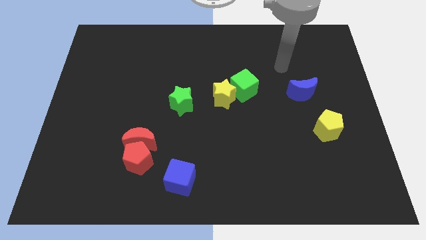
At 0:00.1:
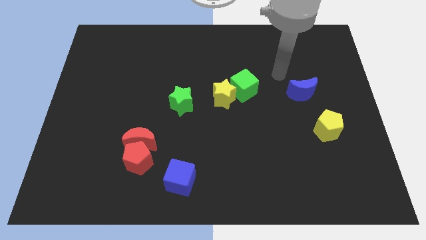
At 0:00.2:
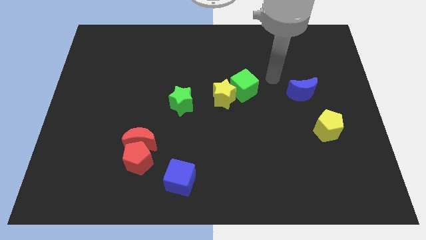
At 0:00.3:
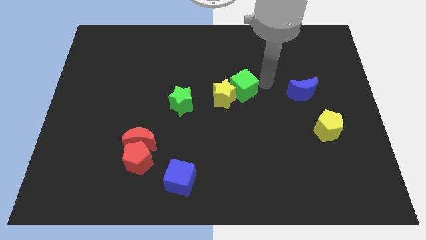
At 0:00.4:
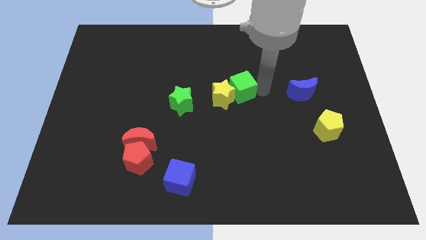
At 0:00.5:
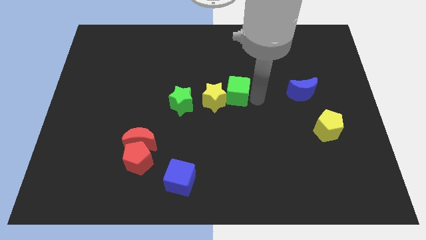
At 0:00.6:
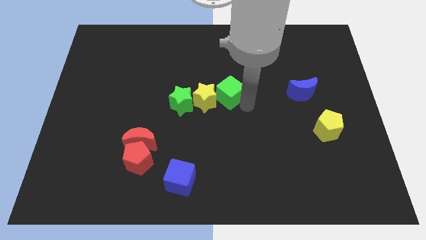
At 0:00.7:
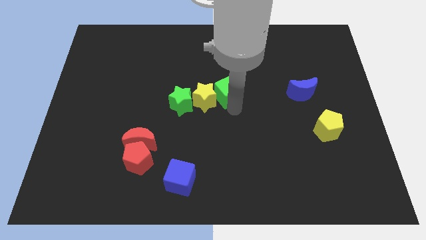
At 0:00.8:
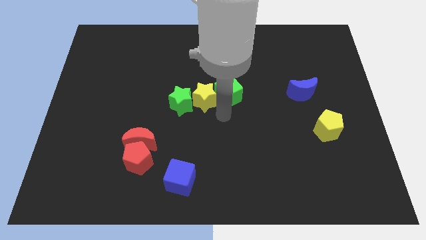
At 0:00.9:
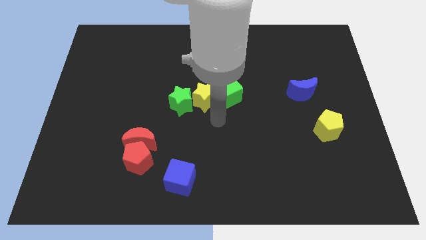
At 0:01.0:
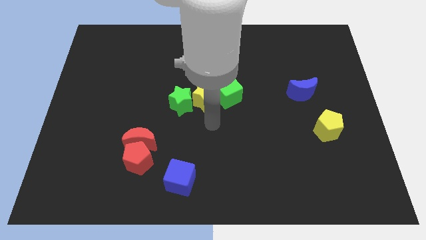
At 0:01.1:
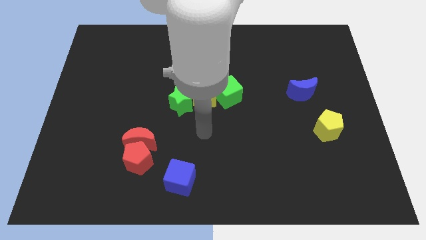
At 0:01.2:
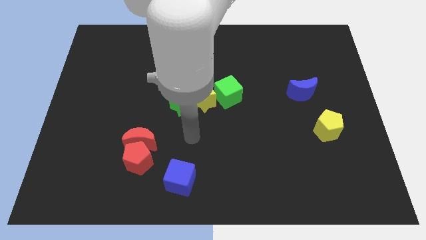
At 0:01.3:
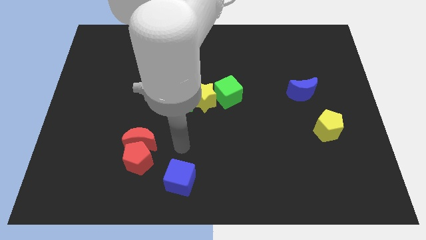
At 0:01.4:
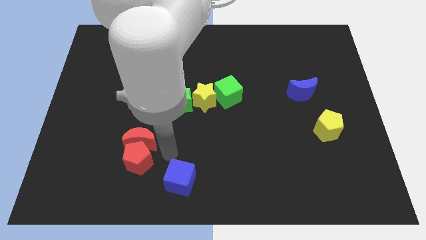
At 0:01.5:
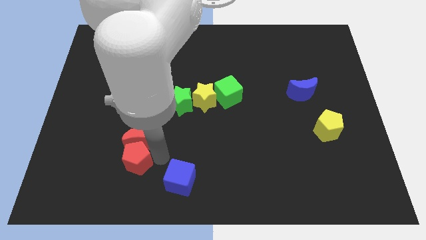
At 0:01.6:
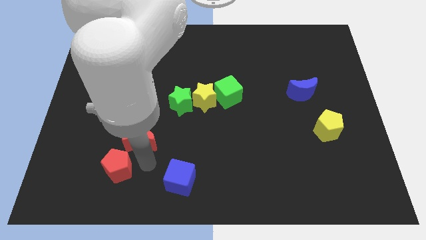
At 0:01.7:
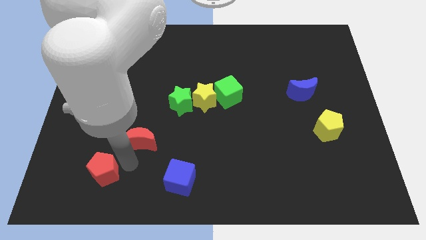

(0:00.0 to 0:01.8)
move the red moon away from the red pentagon

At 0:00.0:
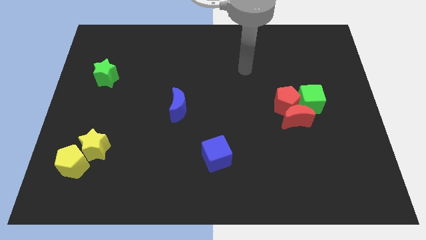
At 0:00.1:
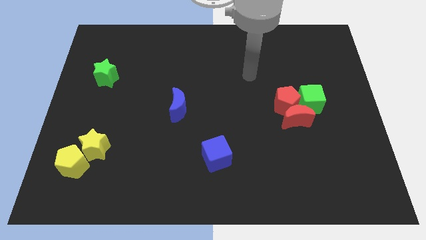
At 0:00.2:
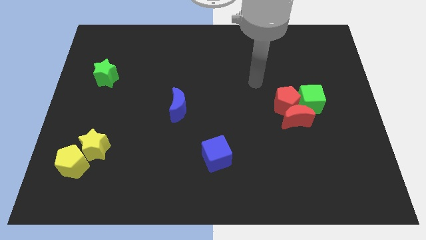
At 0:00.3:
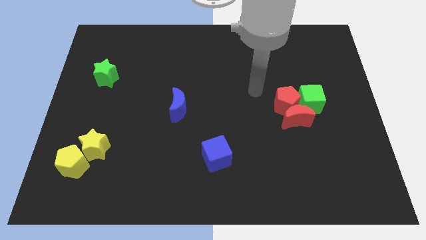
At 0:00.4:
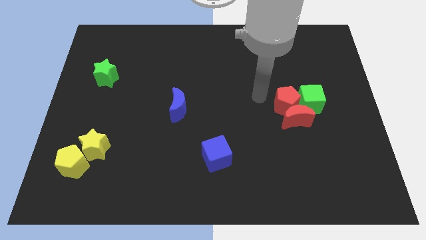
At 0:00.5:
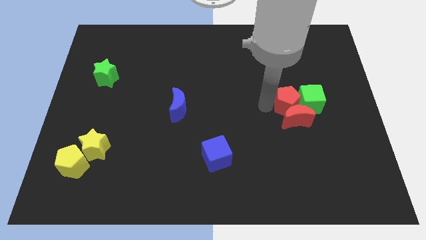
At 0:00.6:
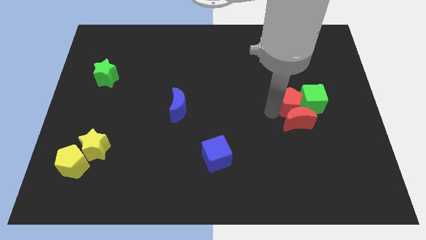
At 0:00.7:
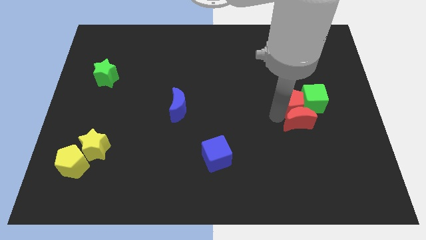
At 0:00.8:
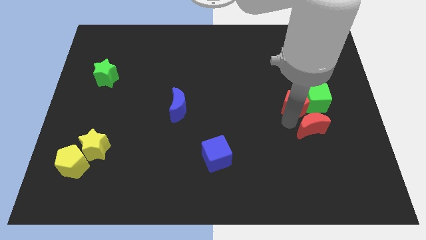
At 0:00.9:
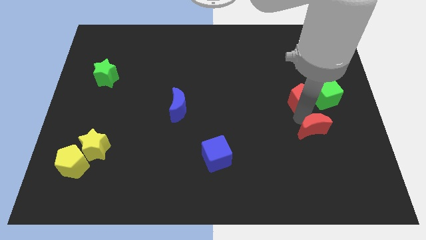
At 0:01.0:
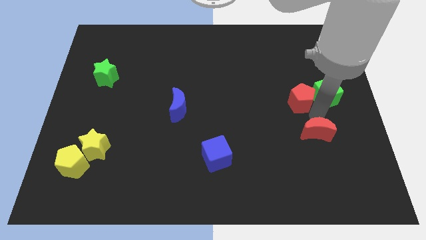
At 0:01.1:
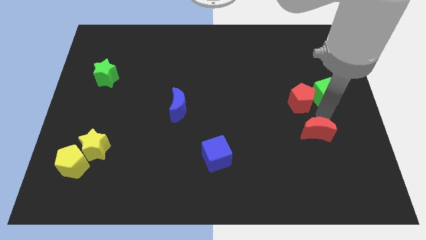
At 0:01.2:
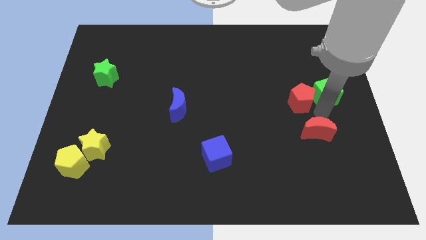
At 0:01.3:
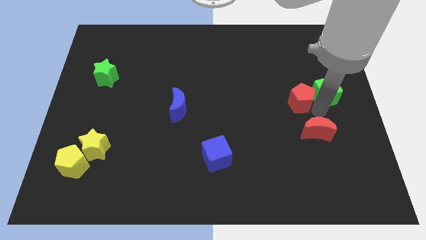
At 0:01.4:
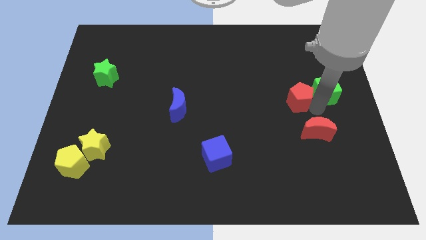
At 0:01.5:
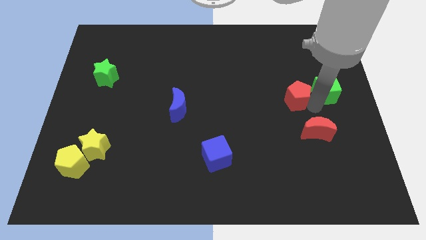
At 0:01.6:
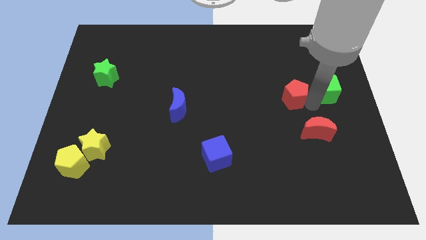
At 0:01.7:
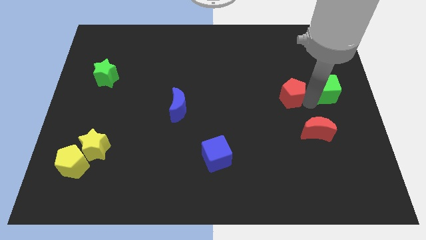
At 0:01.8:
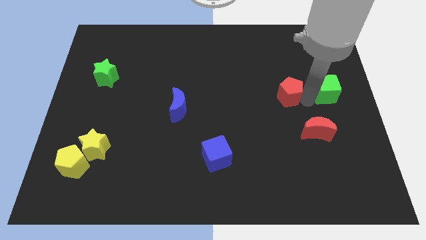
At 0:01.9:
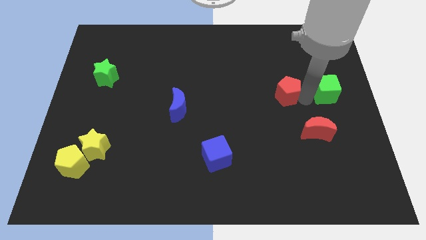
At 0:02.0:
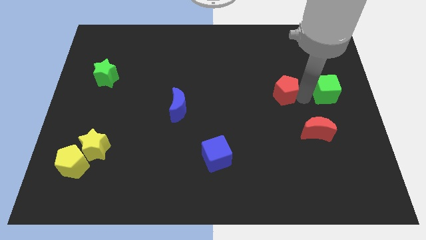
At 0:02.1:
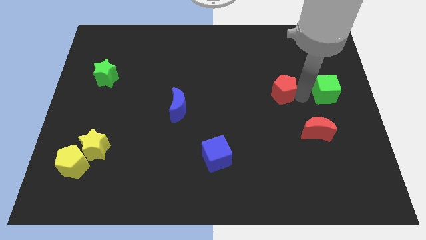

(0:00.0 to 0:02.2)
separate the red pentagon from the red moon and green cube

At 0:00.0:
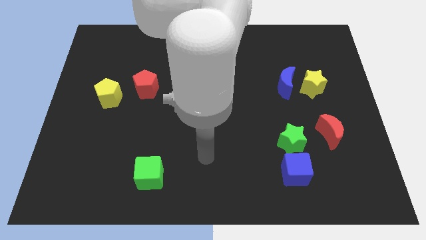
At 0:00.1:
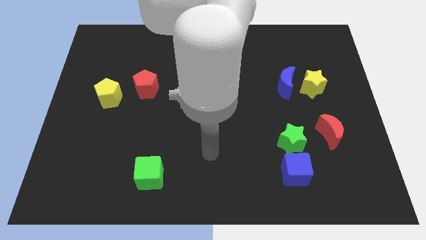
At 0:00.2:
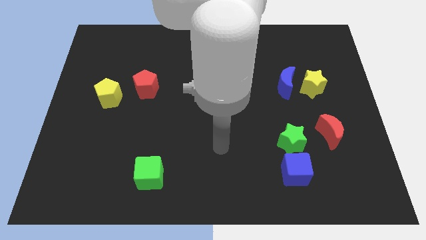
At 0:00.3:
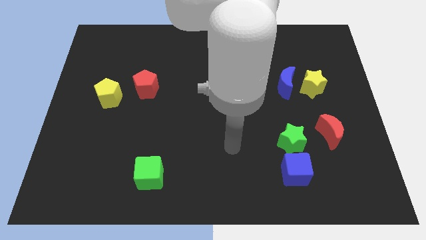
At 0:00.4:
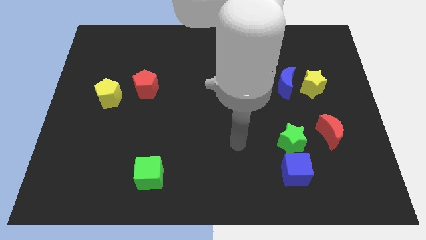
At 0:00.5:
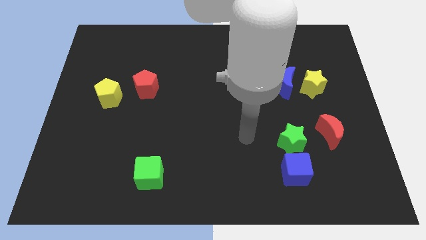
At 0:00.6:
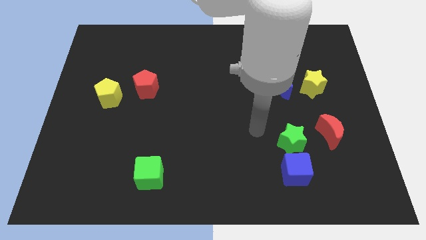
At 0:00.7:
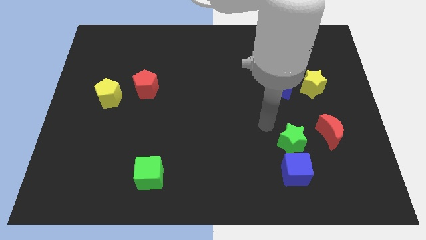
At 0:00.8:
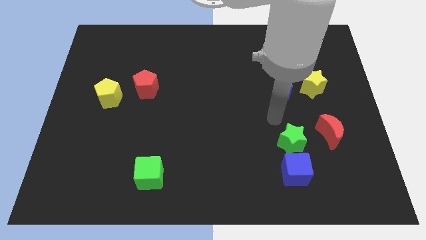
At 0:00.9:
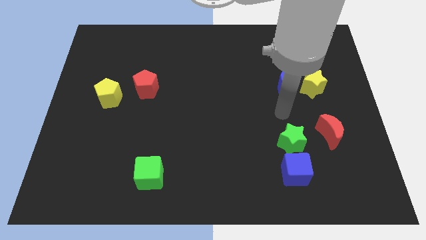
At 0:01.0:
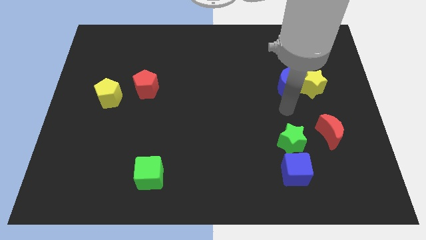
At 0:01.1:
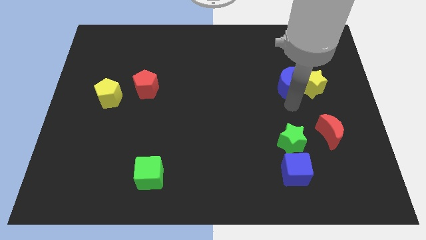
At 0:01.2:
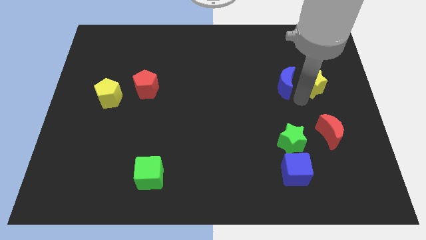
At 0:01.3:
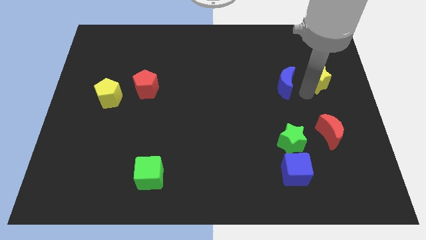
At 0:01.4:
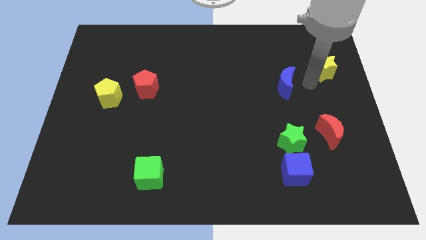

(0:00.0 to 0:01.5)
move the blue moon away from the yellow star

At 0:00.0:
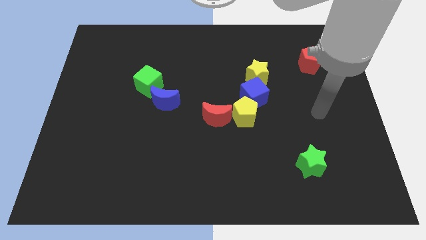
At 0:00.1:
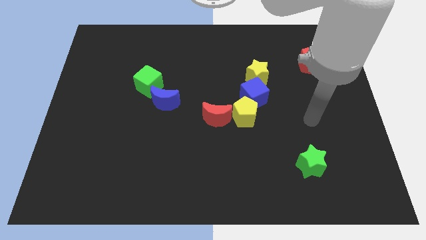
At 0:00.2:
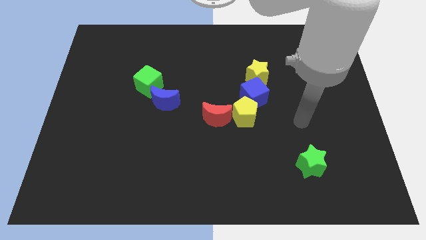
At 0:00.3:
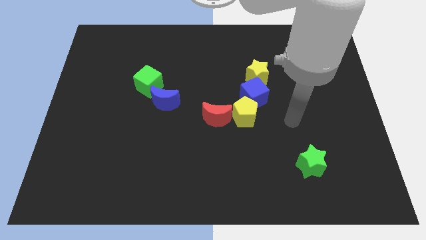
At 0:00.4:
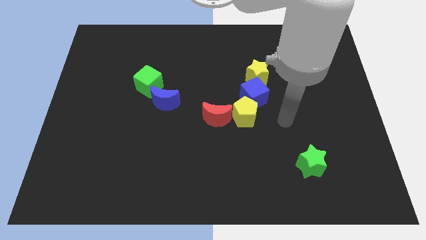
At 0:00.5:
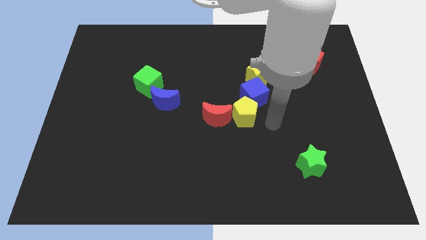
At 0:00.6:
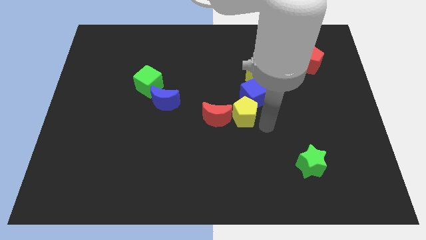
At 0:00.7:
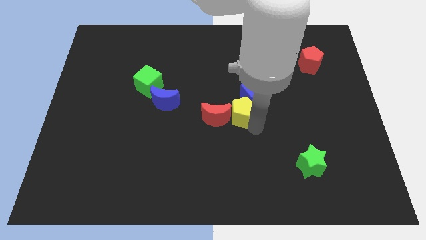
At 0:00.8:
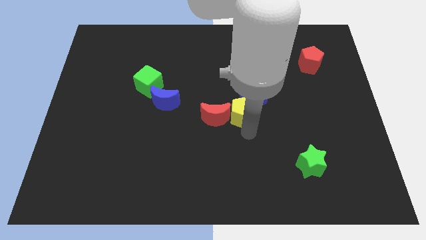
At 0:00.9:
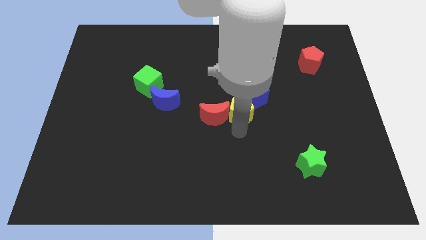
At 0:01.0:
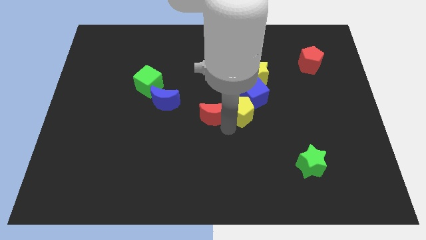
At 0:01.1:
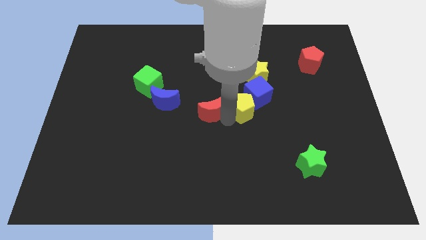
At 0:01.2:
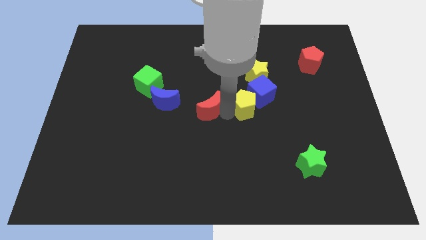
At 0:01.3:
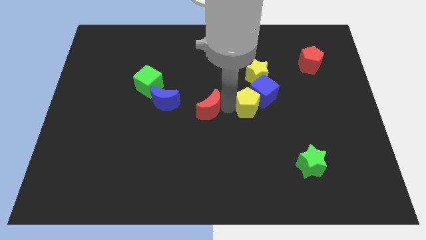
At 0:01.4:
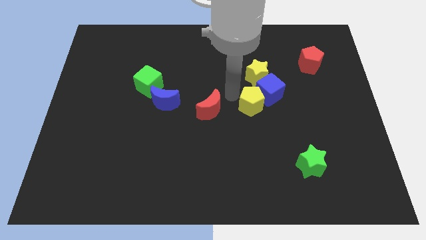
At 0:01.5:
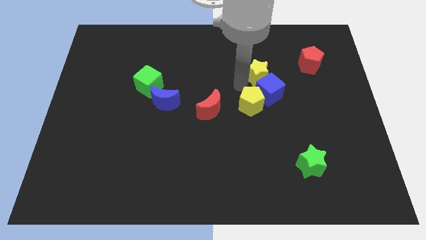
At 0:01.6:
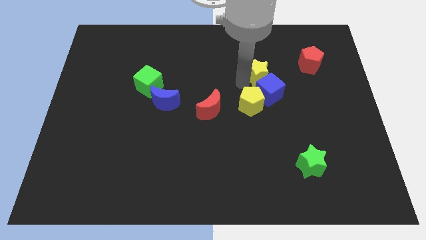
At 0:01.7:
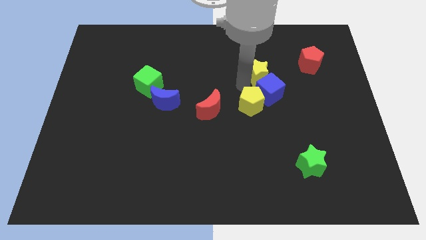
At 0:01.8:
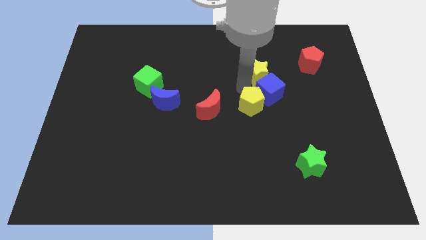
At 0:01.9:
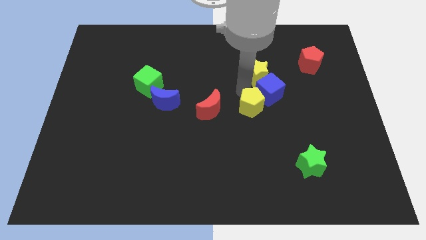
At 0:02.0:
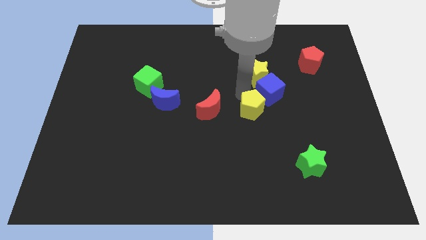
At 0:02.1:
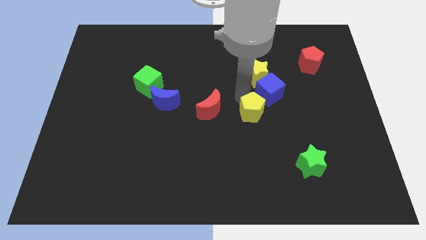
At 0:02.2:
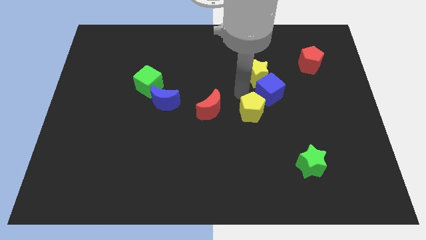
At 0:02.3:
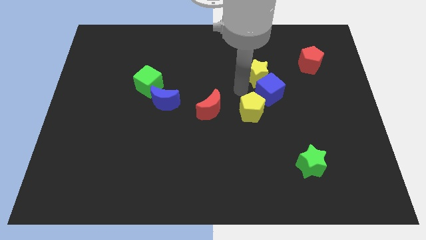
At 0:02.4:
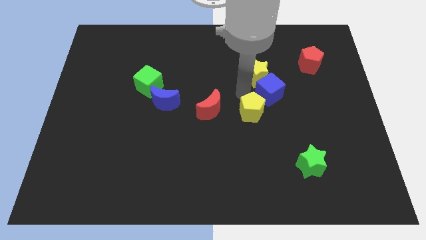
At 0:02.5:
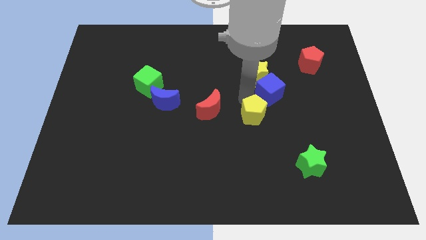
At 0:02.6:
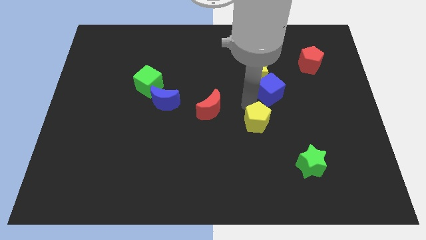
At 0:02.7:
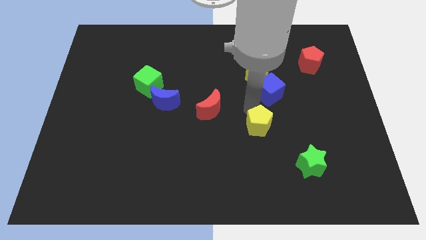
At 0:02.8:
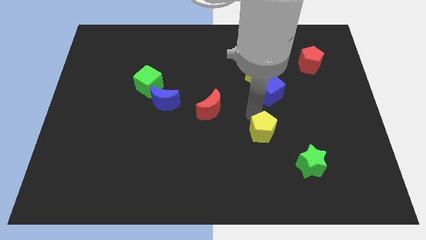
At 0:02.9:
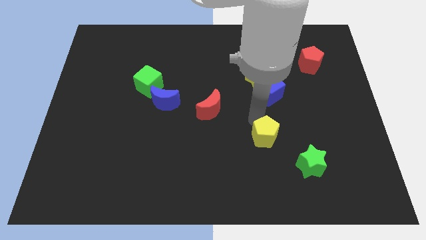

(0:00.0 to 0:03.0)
move the yellow pentagon away from the blue cube and red moon

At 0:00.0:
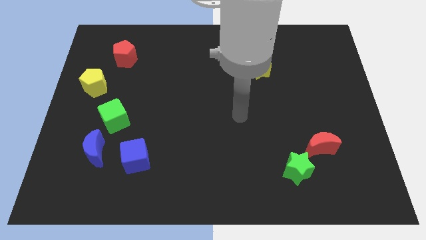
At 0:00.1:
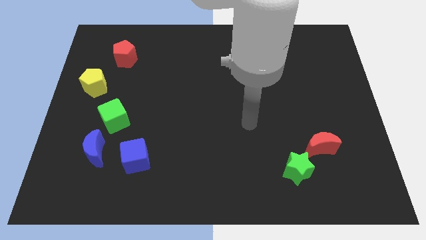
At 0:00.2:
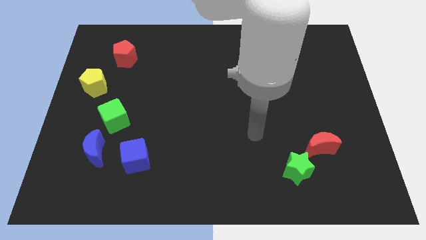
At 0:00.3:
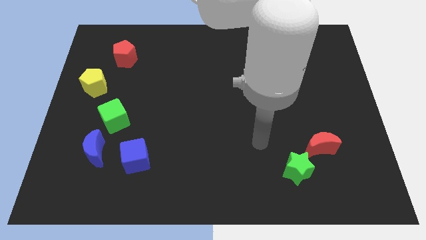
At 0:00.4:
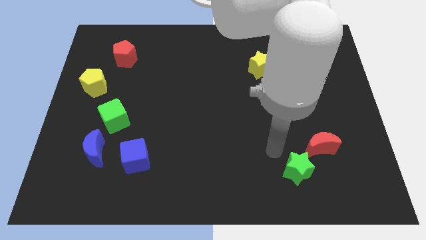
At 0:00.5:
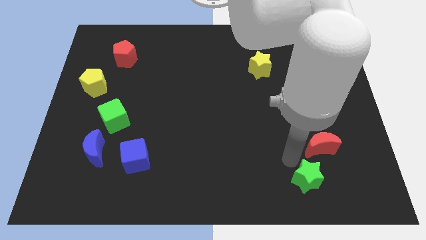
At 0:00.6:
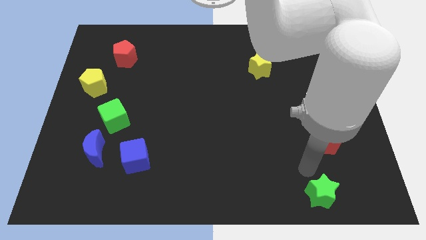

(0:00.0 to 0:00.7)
pull the red moon apart from the green star

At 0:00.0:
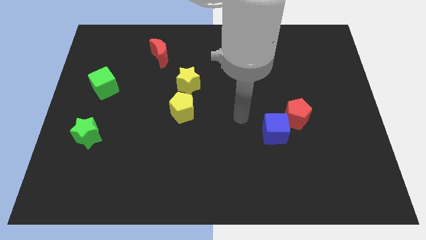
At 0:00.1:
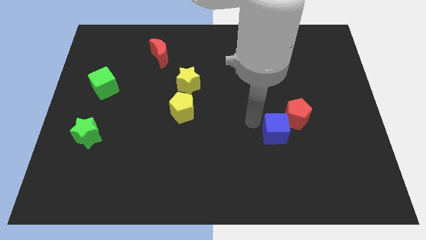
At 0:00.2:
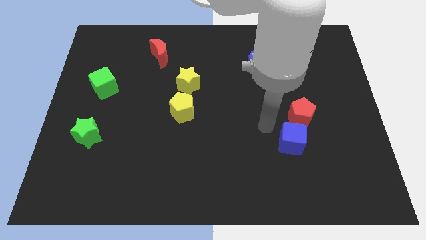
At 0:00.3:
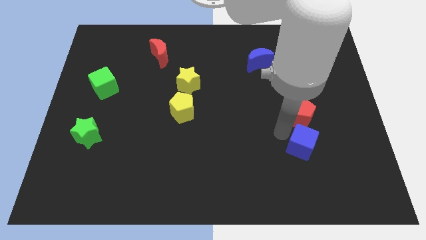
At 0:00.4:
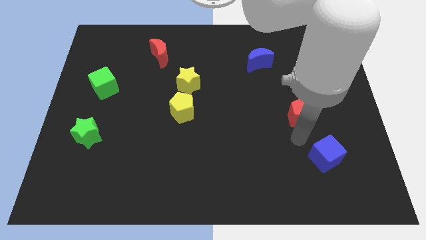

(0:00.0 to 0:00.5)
separate the red pentagon from the blue cube
